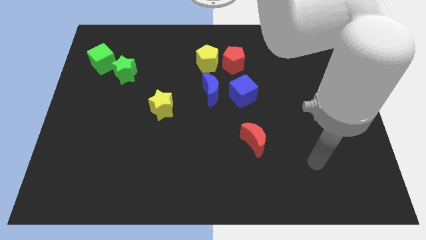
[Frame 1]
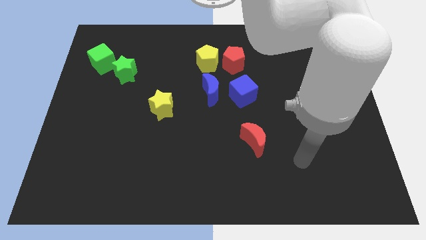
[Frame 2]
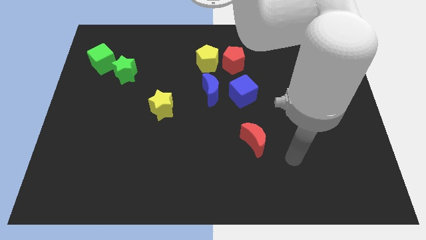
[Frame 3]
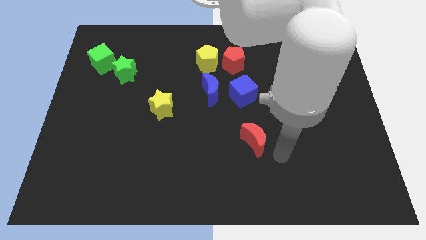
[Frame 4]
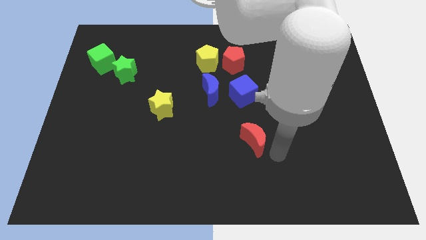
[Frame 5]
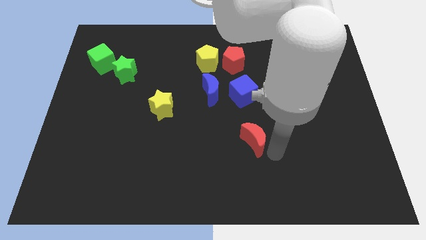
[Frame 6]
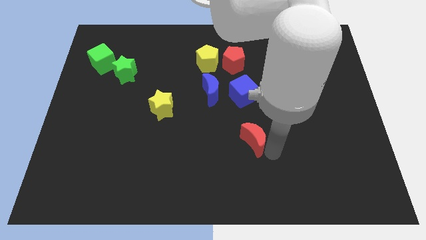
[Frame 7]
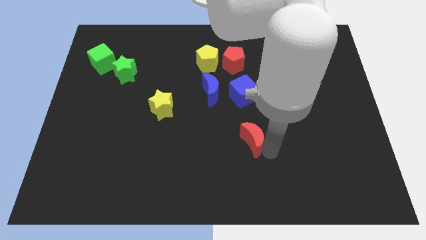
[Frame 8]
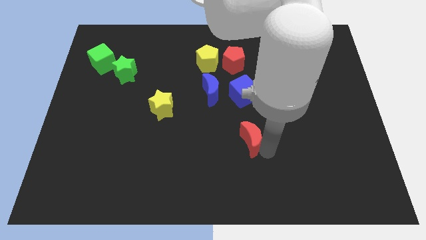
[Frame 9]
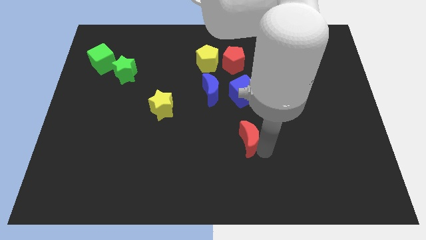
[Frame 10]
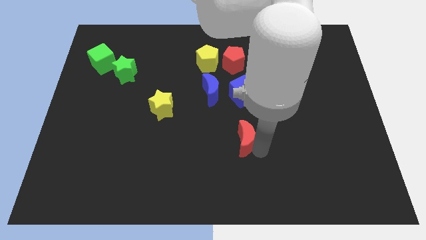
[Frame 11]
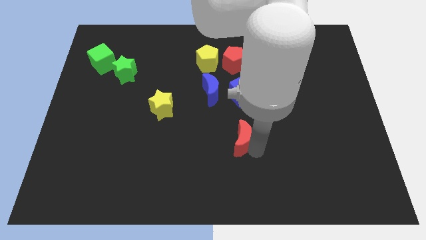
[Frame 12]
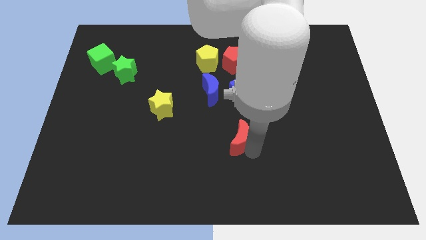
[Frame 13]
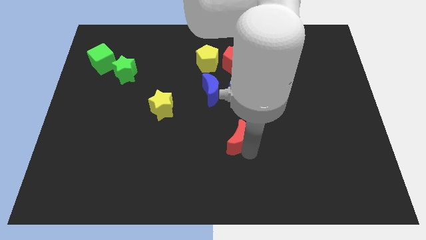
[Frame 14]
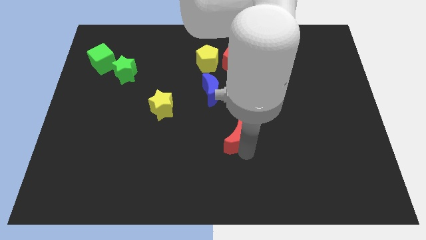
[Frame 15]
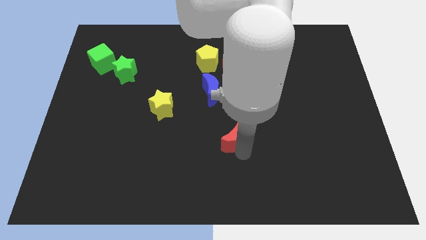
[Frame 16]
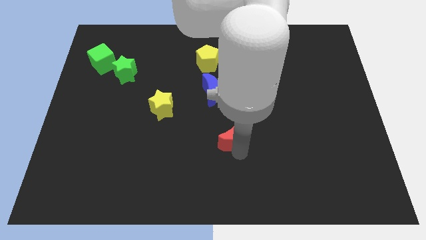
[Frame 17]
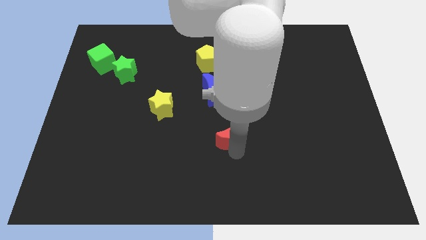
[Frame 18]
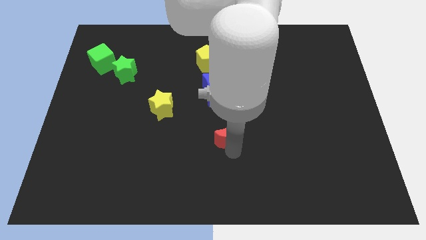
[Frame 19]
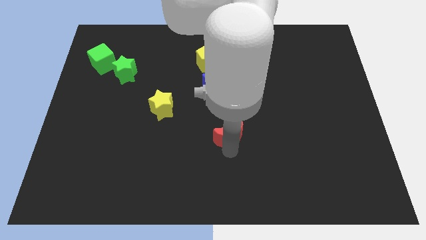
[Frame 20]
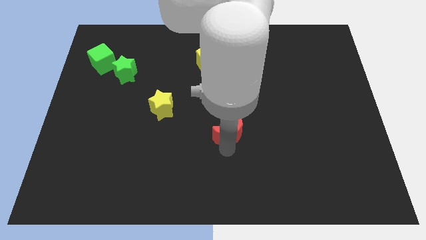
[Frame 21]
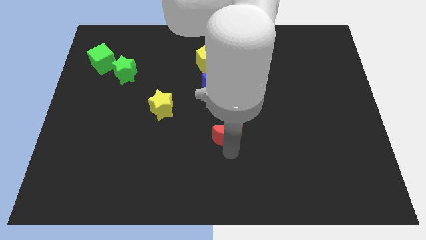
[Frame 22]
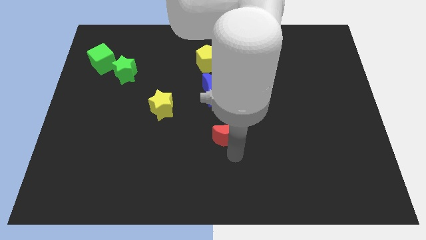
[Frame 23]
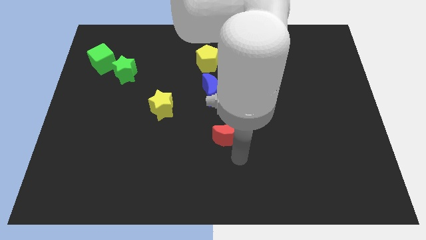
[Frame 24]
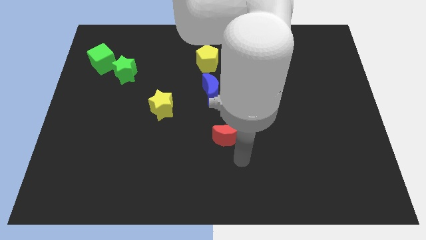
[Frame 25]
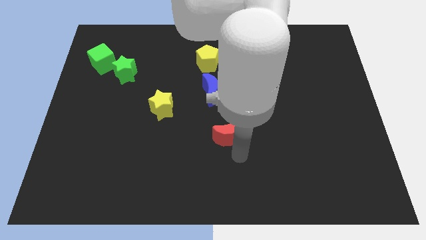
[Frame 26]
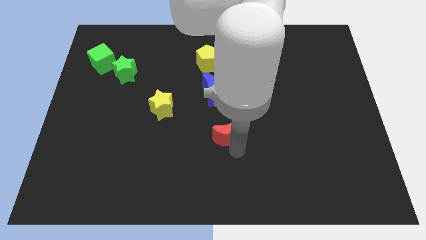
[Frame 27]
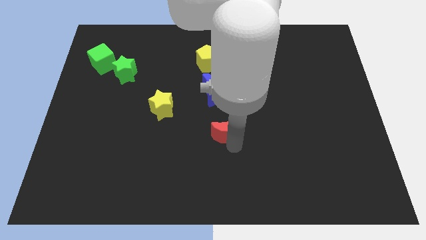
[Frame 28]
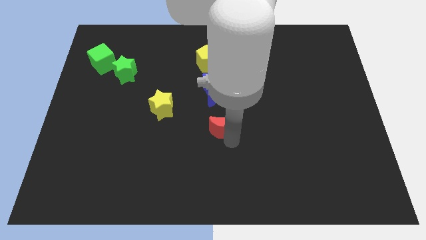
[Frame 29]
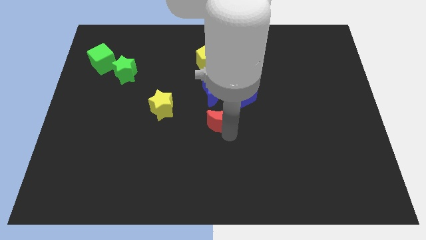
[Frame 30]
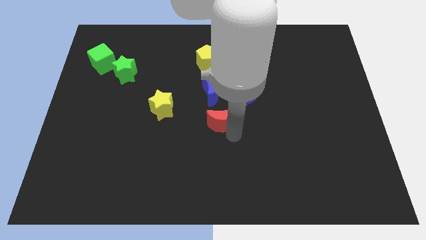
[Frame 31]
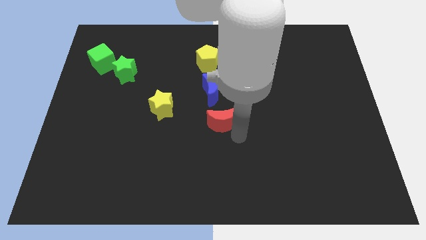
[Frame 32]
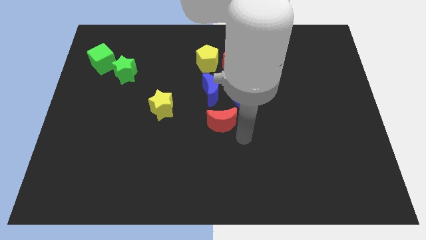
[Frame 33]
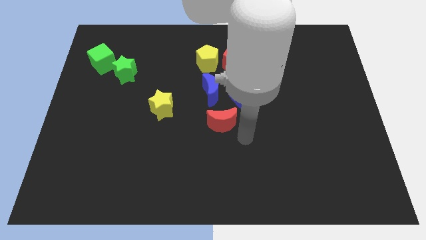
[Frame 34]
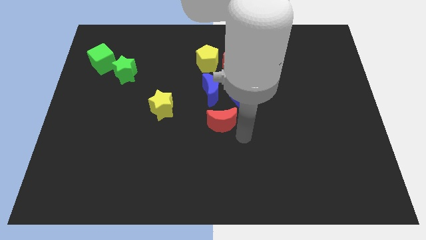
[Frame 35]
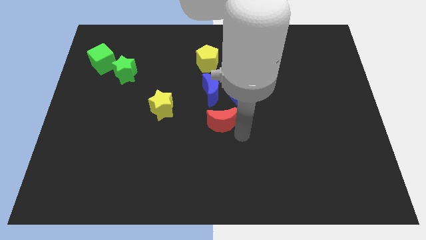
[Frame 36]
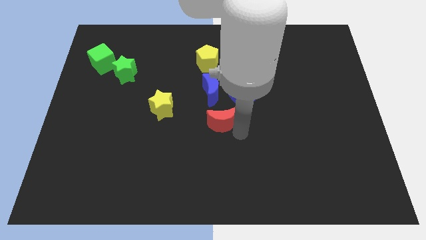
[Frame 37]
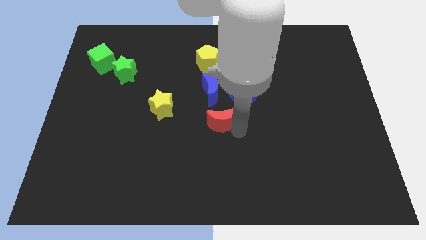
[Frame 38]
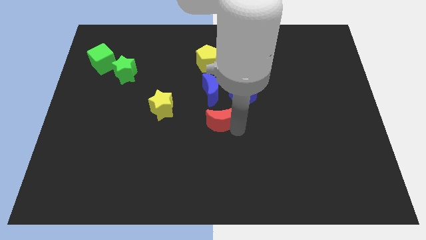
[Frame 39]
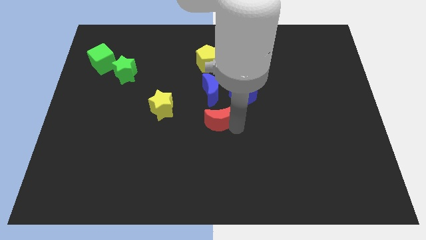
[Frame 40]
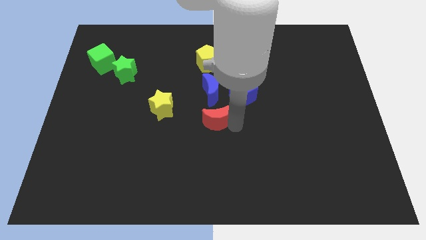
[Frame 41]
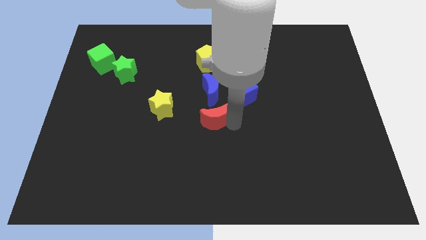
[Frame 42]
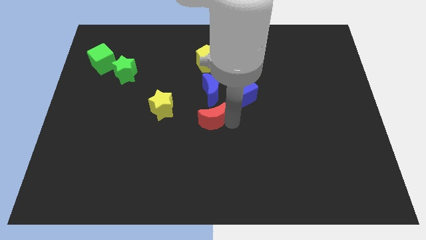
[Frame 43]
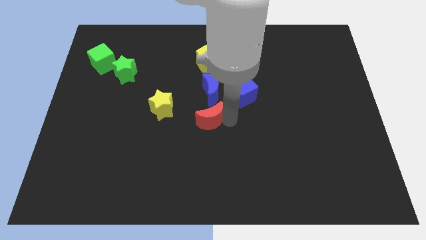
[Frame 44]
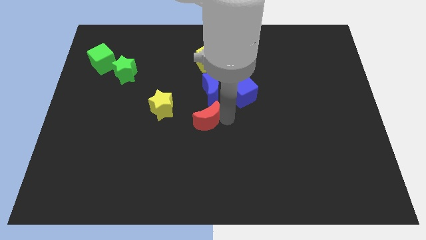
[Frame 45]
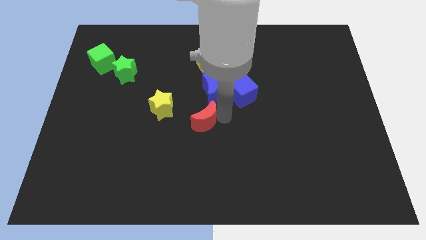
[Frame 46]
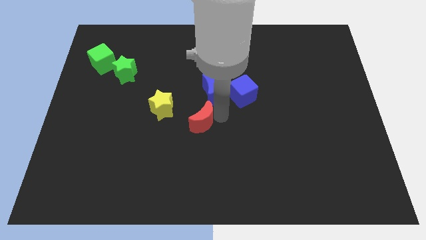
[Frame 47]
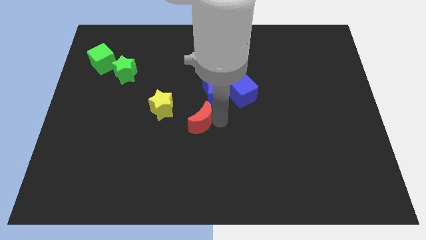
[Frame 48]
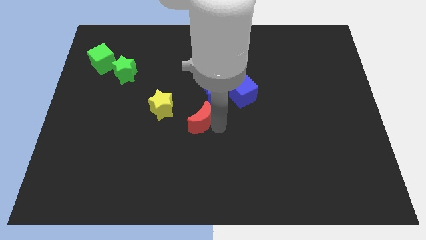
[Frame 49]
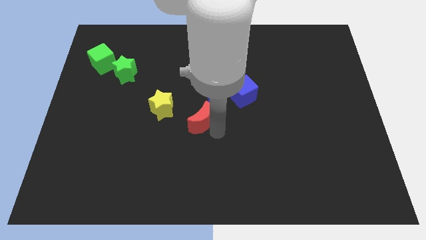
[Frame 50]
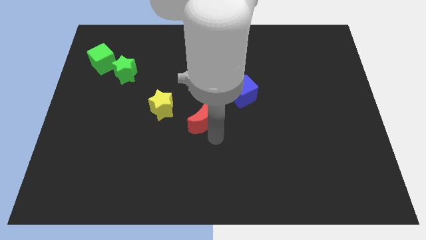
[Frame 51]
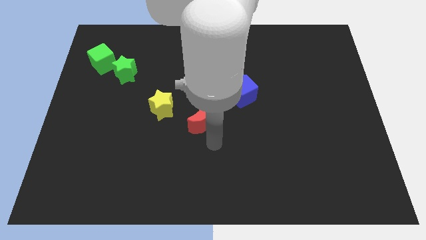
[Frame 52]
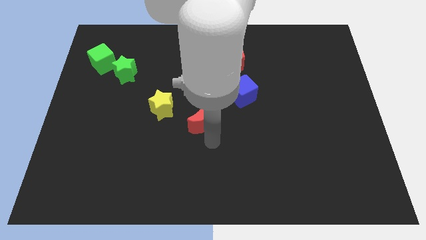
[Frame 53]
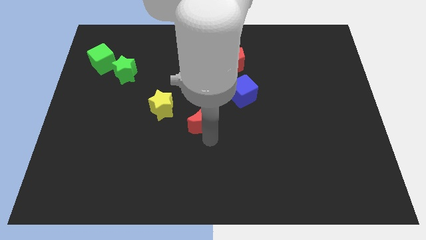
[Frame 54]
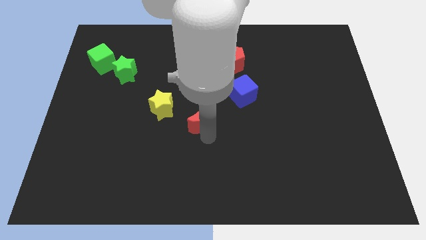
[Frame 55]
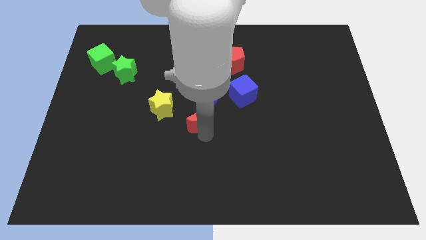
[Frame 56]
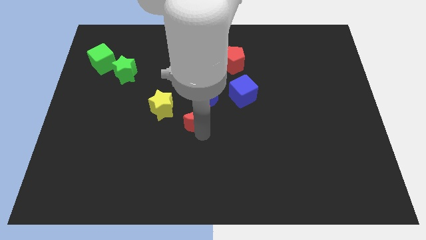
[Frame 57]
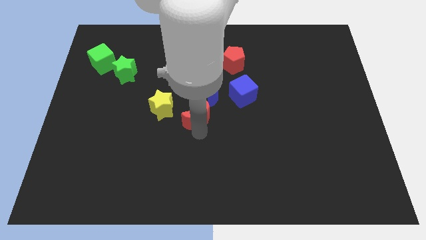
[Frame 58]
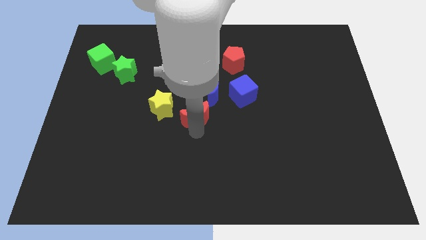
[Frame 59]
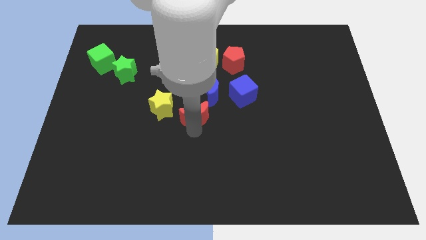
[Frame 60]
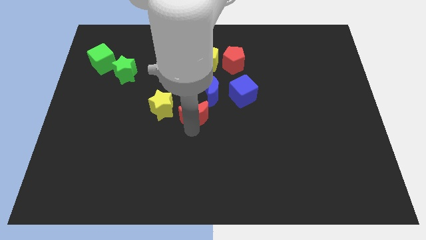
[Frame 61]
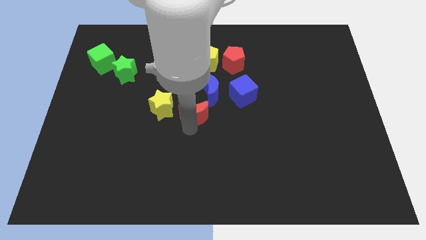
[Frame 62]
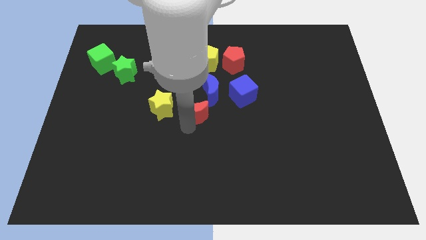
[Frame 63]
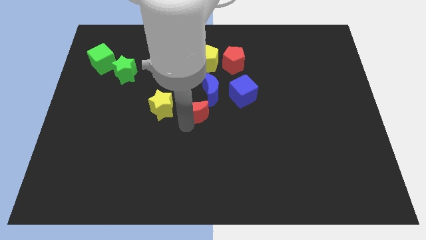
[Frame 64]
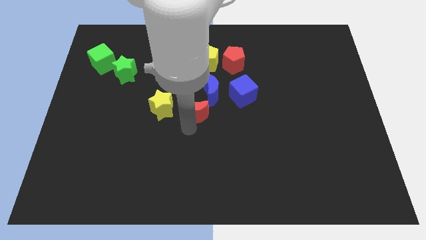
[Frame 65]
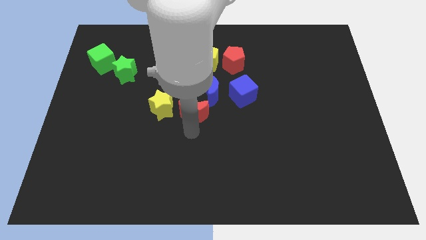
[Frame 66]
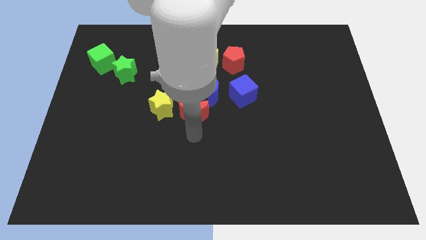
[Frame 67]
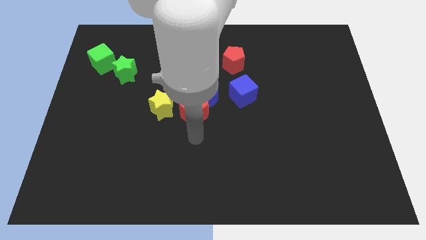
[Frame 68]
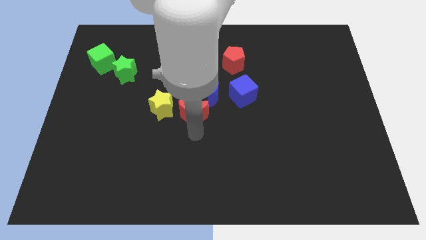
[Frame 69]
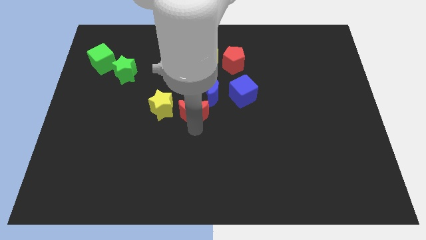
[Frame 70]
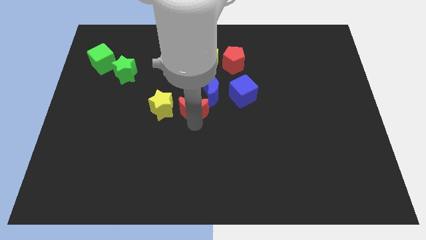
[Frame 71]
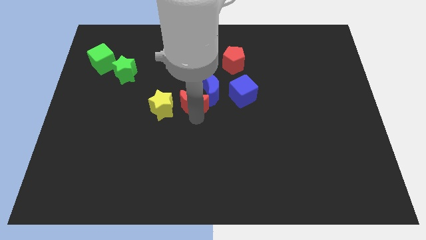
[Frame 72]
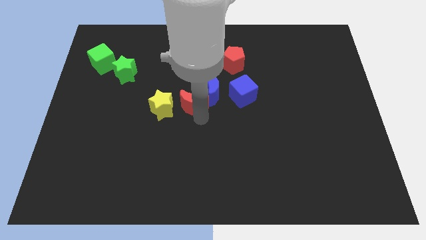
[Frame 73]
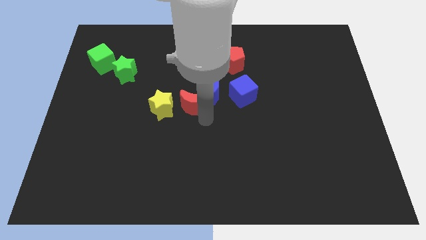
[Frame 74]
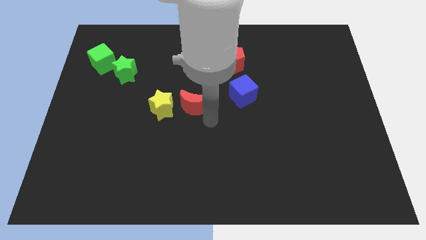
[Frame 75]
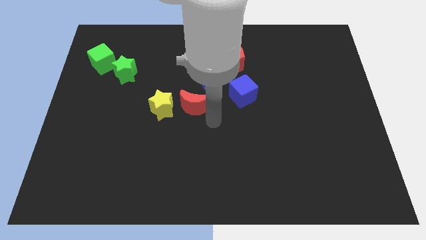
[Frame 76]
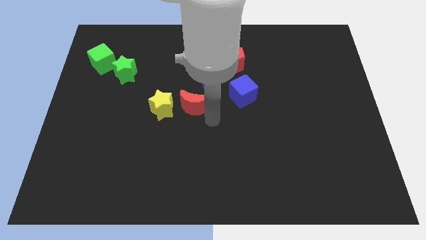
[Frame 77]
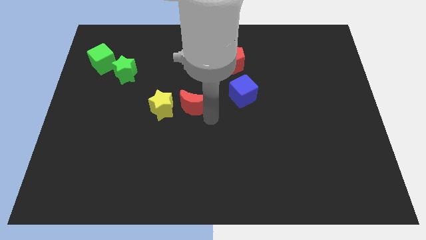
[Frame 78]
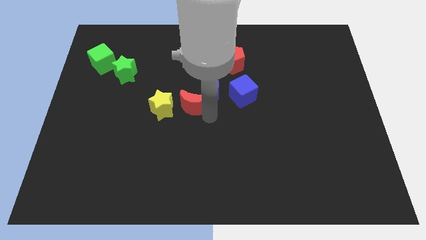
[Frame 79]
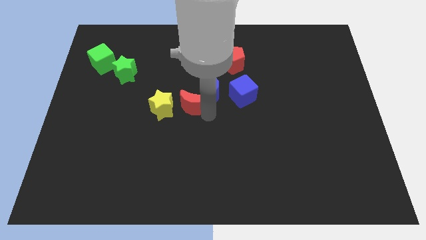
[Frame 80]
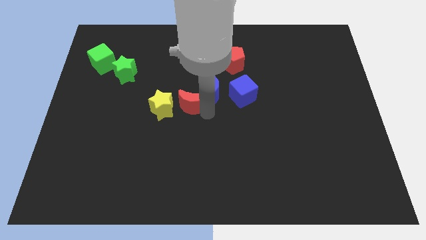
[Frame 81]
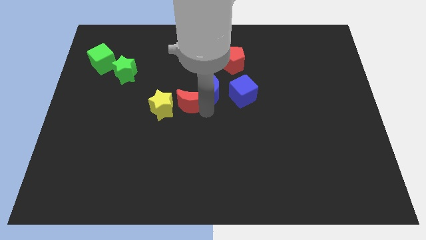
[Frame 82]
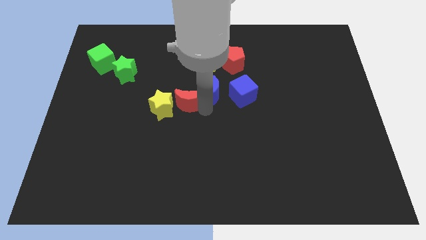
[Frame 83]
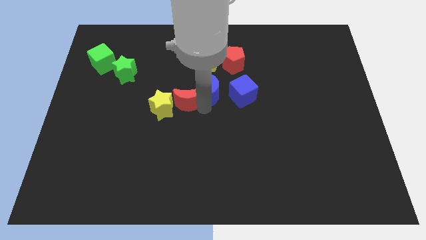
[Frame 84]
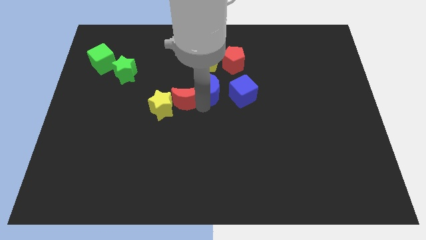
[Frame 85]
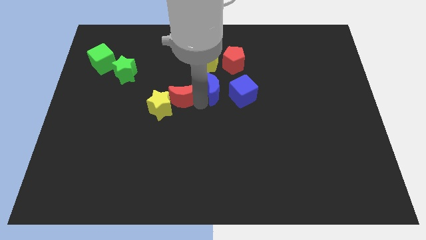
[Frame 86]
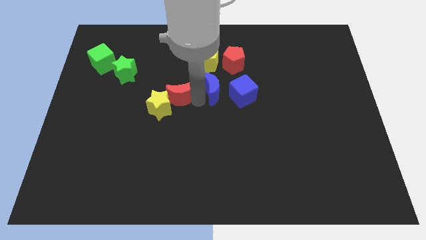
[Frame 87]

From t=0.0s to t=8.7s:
slide the red moon upwards and left
